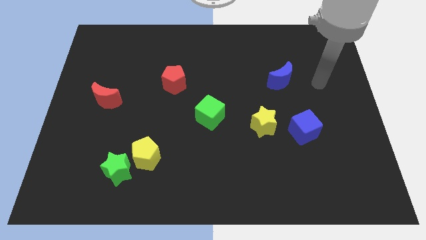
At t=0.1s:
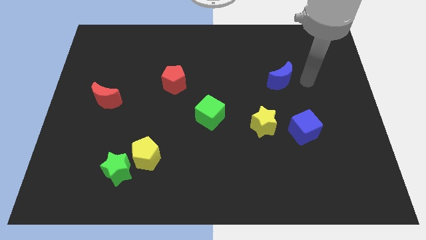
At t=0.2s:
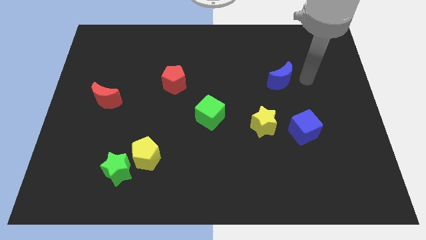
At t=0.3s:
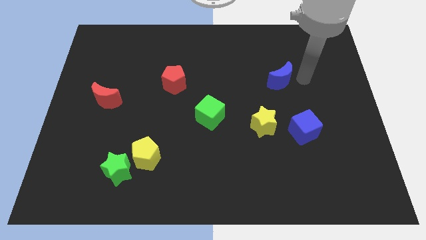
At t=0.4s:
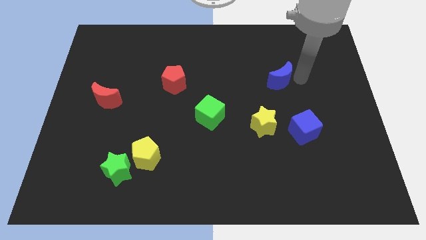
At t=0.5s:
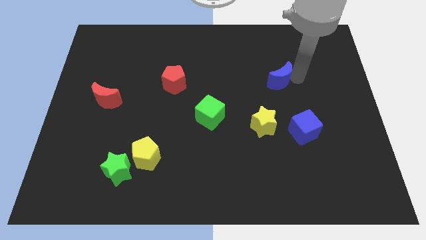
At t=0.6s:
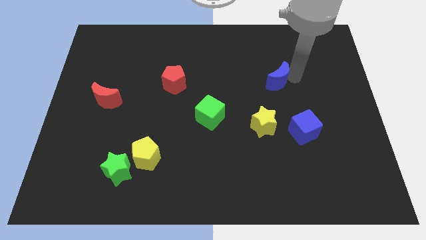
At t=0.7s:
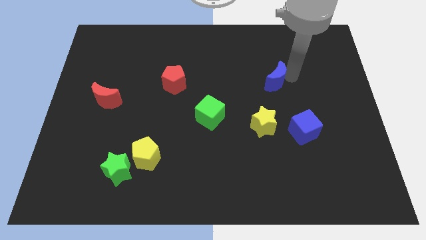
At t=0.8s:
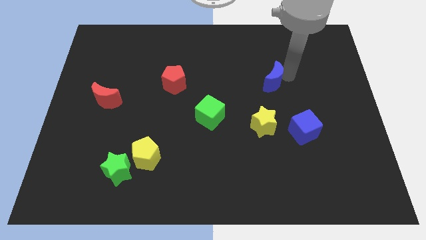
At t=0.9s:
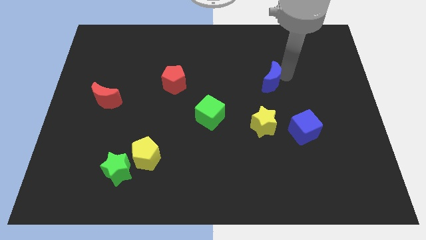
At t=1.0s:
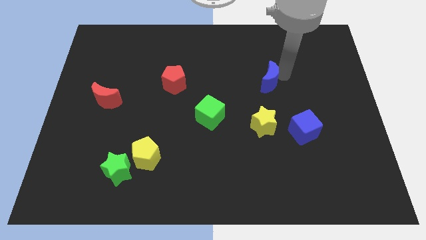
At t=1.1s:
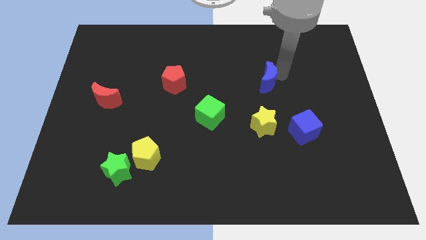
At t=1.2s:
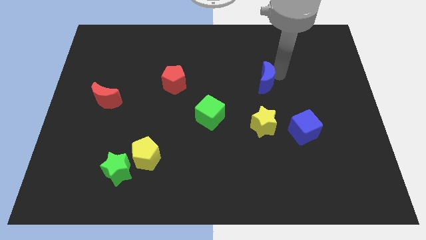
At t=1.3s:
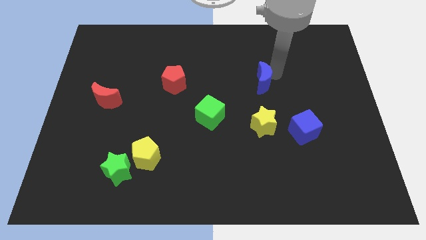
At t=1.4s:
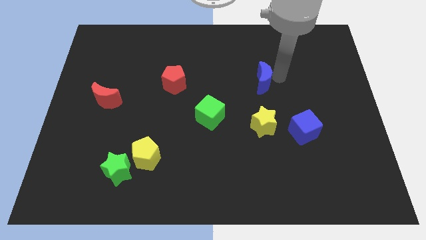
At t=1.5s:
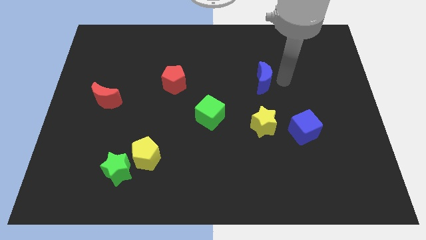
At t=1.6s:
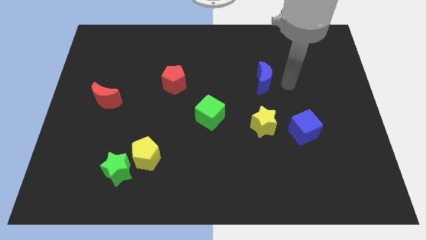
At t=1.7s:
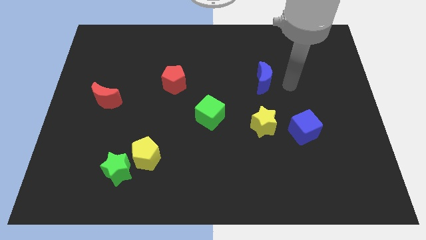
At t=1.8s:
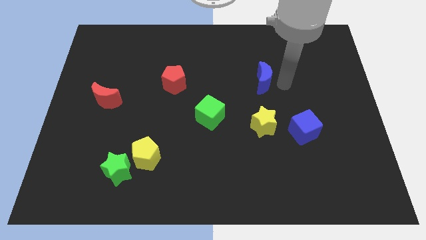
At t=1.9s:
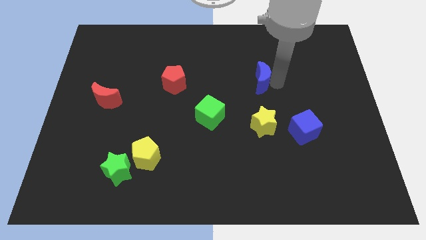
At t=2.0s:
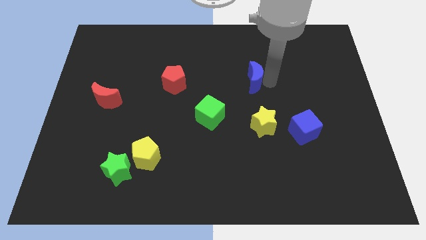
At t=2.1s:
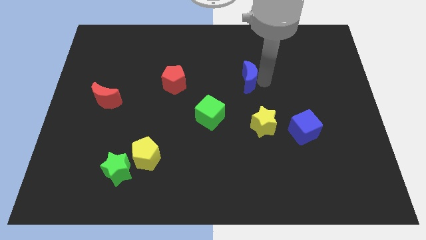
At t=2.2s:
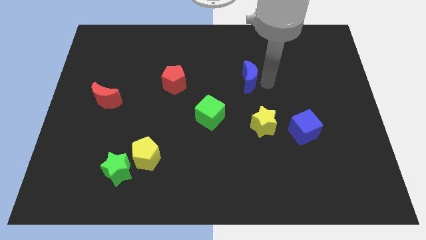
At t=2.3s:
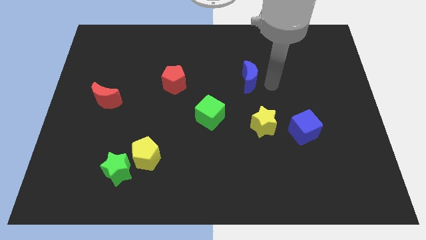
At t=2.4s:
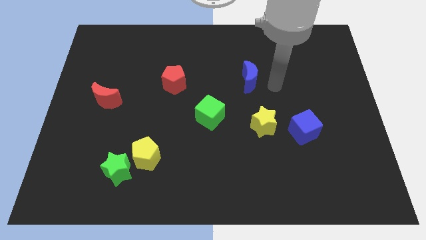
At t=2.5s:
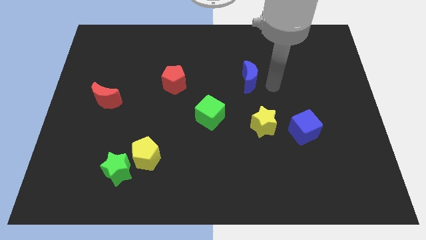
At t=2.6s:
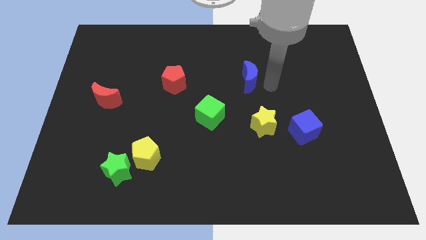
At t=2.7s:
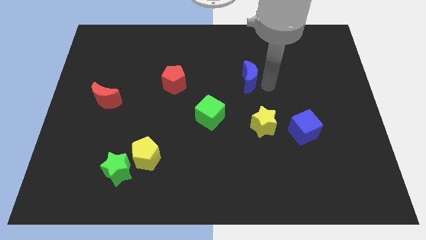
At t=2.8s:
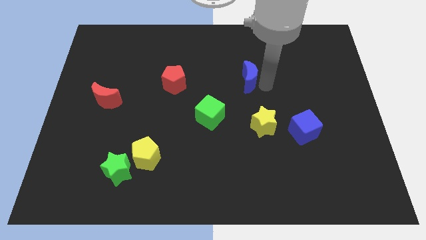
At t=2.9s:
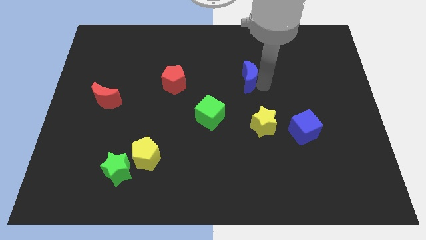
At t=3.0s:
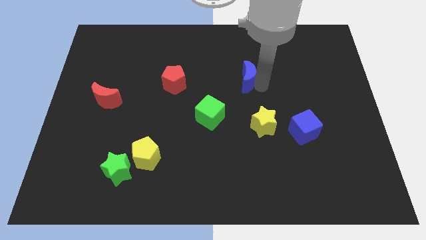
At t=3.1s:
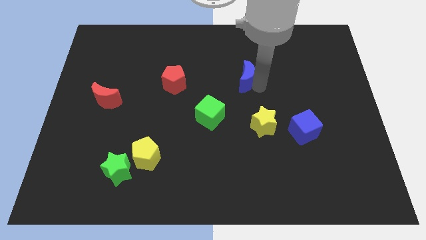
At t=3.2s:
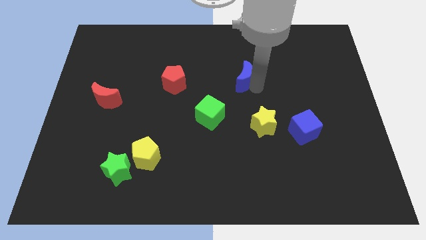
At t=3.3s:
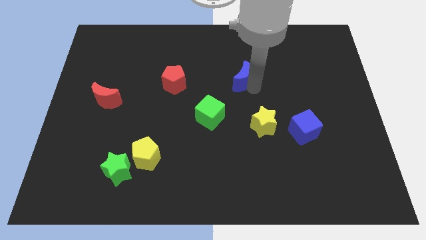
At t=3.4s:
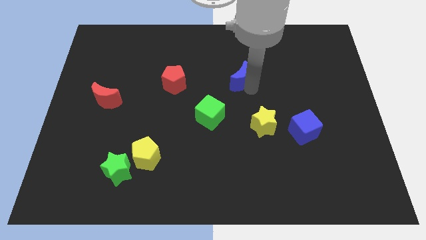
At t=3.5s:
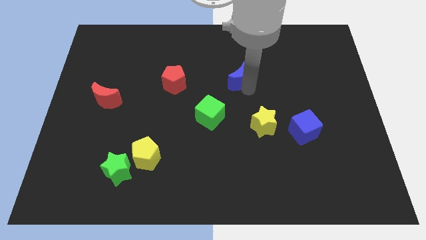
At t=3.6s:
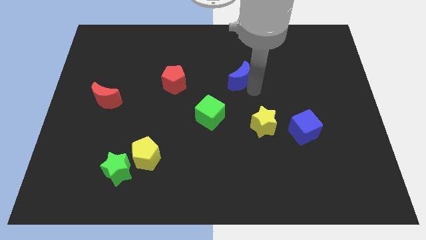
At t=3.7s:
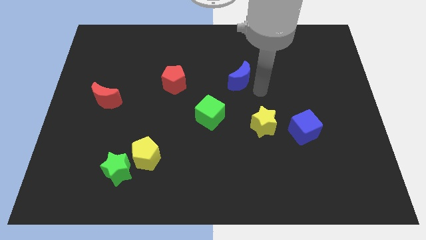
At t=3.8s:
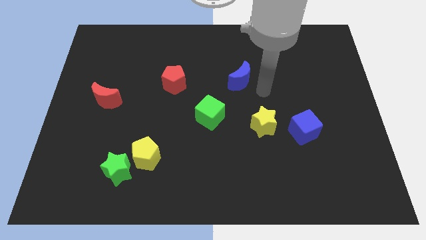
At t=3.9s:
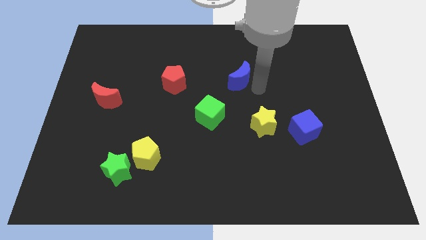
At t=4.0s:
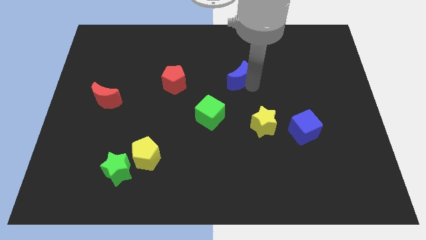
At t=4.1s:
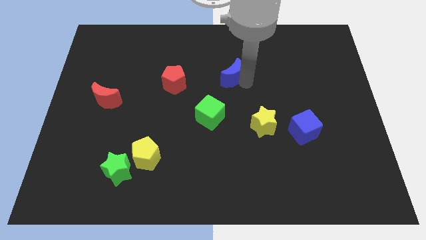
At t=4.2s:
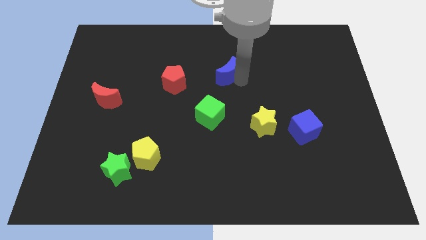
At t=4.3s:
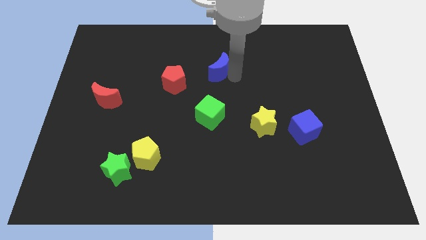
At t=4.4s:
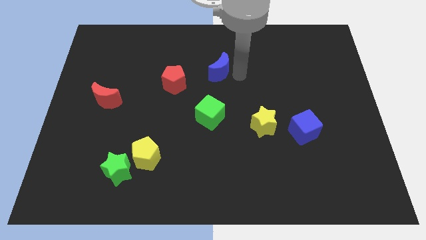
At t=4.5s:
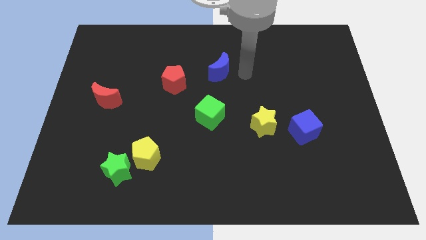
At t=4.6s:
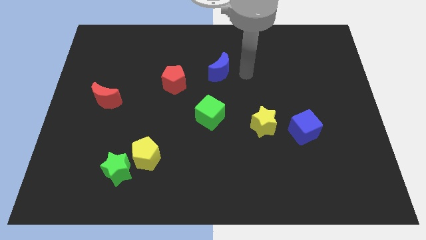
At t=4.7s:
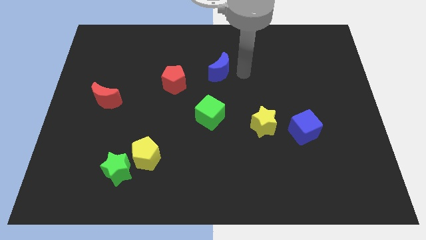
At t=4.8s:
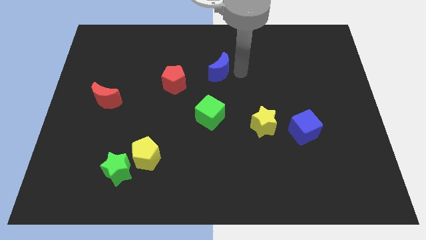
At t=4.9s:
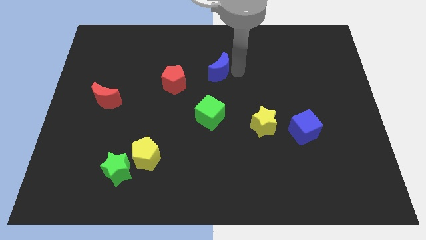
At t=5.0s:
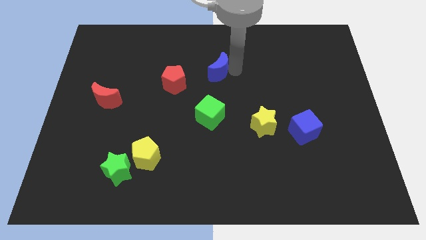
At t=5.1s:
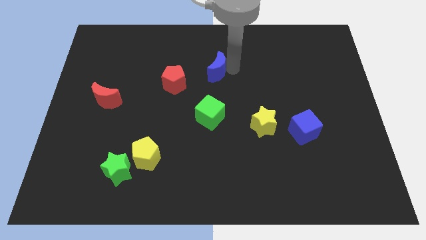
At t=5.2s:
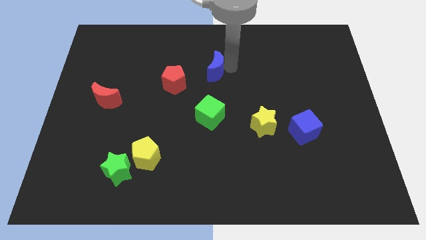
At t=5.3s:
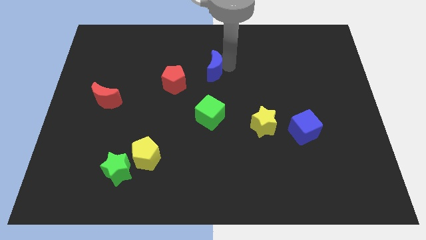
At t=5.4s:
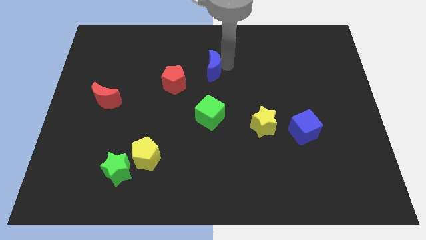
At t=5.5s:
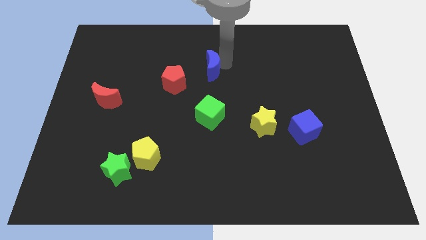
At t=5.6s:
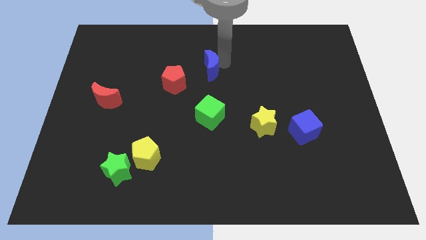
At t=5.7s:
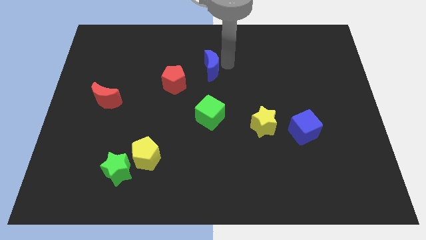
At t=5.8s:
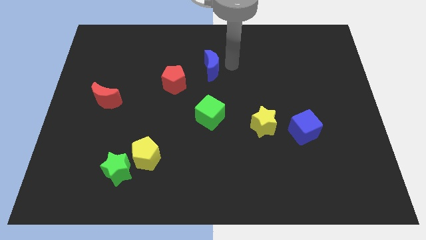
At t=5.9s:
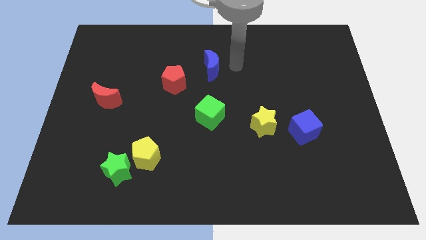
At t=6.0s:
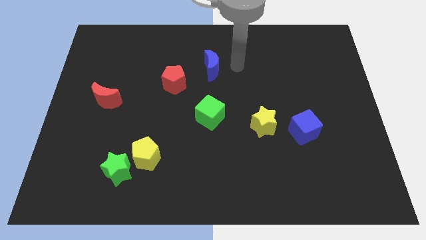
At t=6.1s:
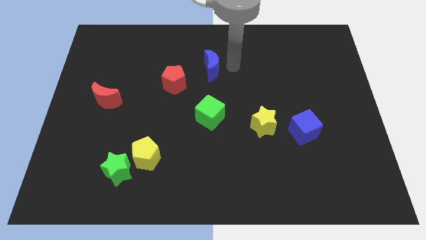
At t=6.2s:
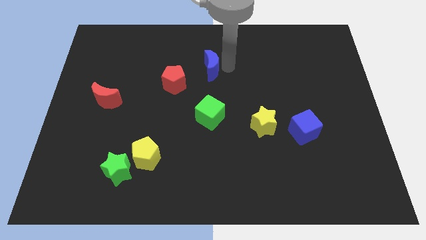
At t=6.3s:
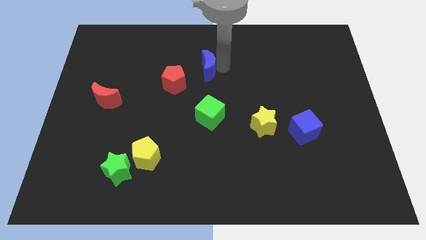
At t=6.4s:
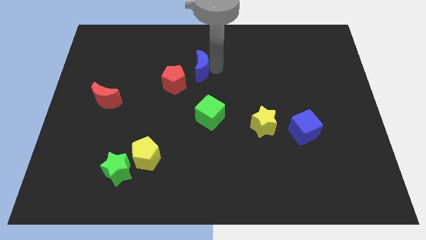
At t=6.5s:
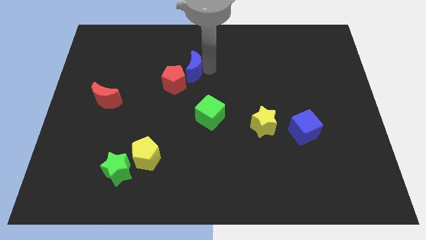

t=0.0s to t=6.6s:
slide the blue moon left

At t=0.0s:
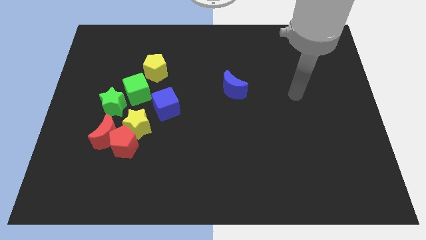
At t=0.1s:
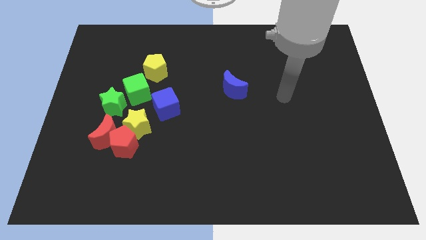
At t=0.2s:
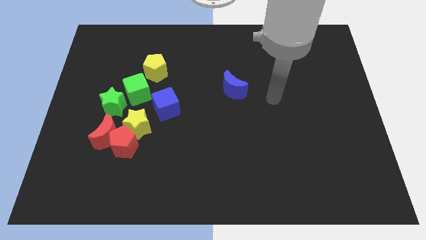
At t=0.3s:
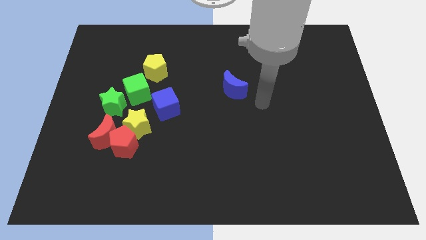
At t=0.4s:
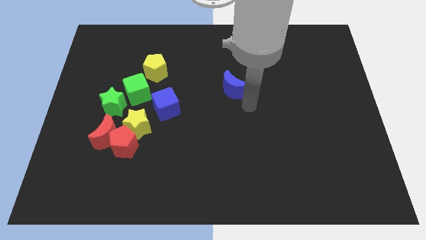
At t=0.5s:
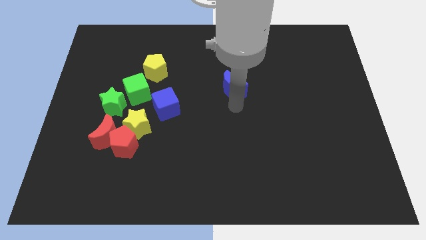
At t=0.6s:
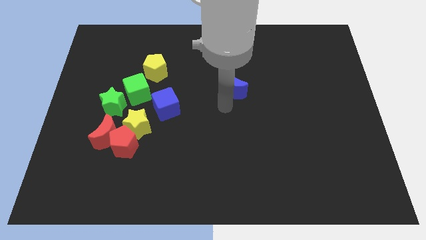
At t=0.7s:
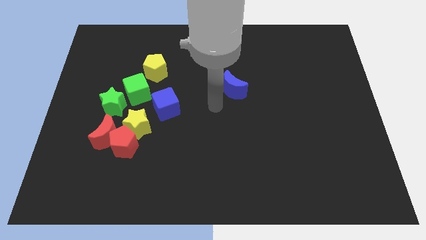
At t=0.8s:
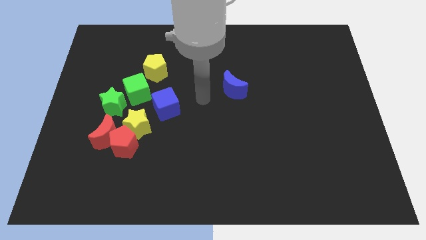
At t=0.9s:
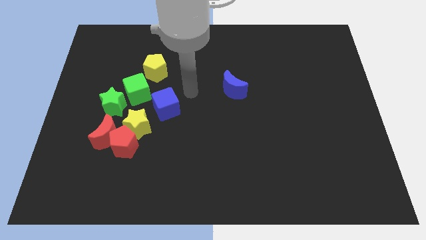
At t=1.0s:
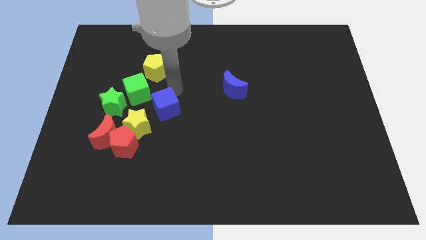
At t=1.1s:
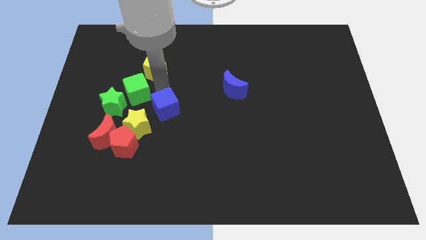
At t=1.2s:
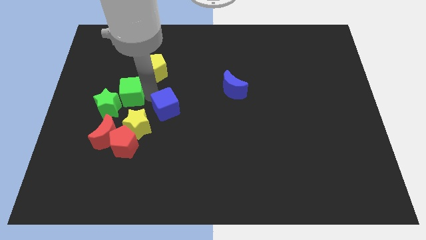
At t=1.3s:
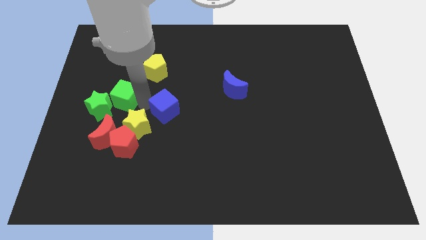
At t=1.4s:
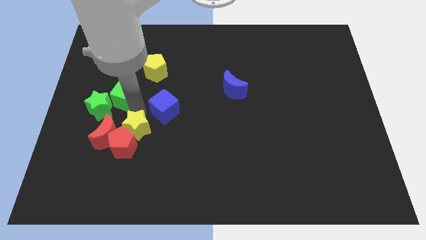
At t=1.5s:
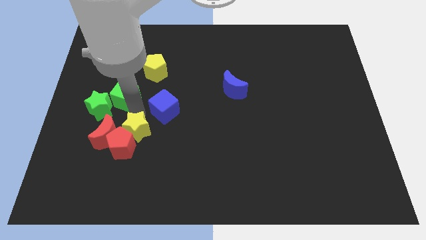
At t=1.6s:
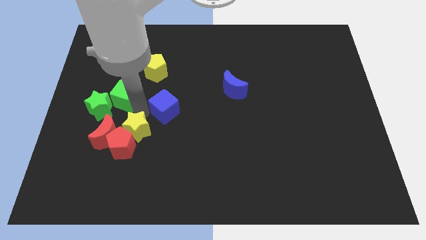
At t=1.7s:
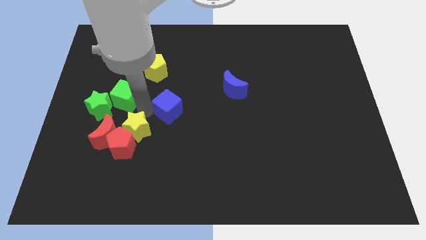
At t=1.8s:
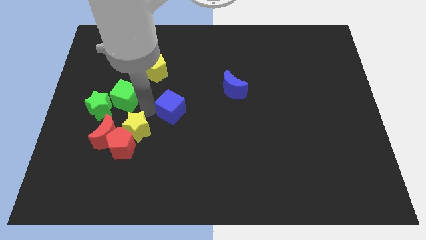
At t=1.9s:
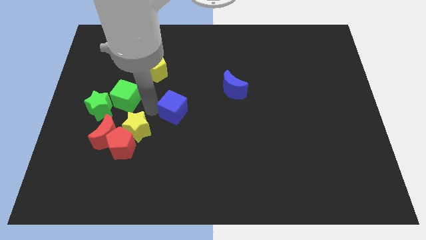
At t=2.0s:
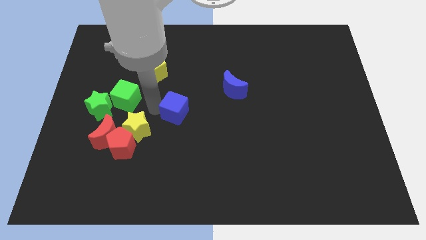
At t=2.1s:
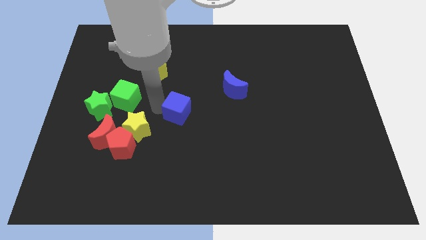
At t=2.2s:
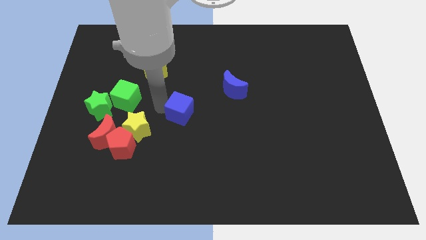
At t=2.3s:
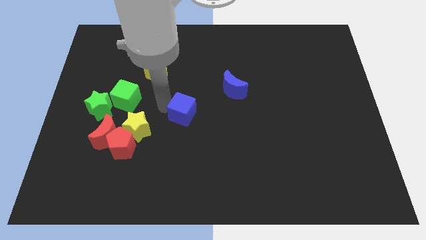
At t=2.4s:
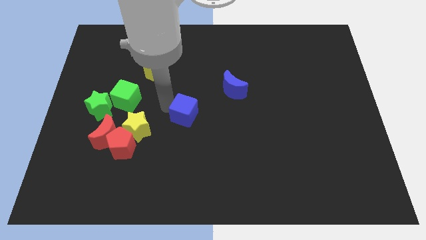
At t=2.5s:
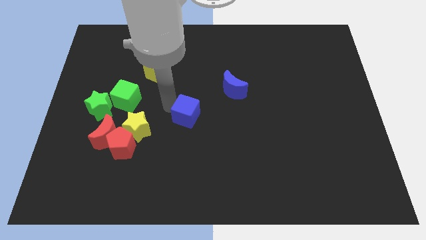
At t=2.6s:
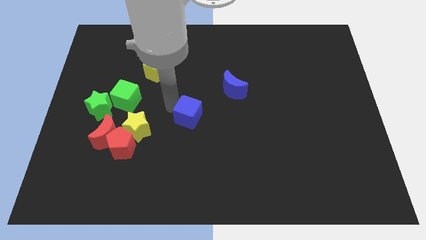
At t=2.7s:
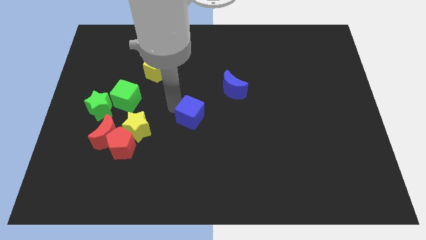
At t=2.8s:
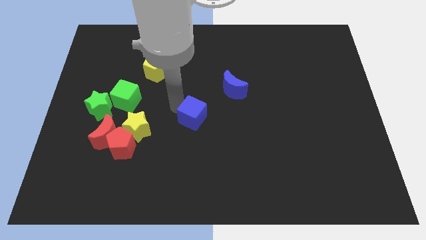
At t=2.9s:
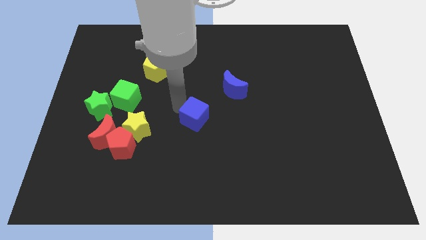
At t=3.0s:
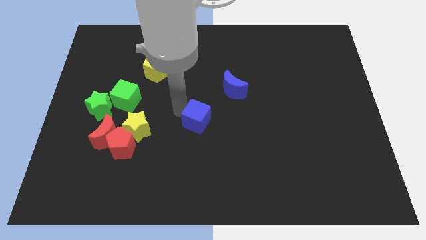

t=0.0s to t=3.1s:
slightly push the blue cube to the right
